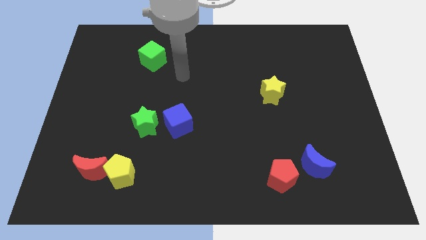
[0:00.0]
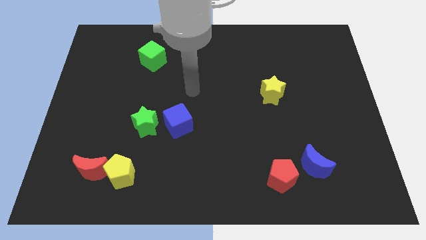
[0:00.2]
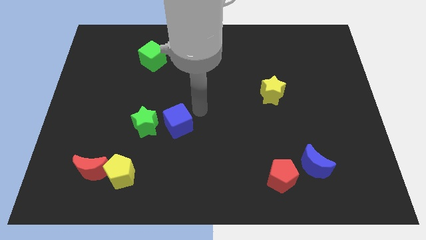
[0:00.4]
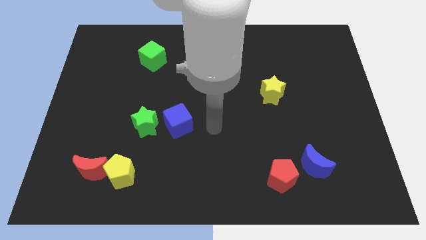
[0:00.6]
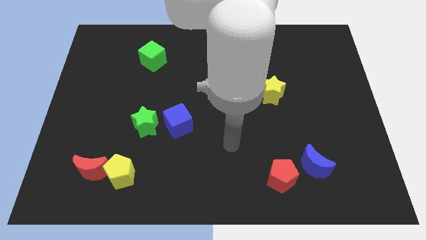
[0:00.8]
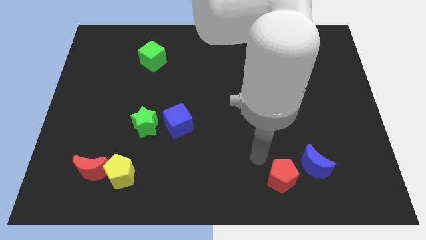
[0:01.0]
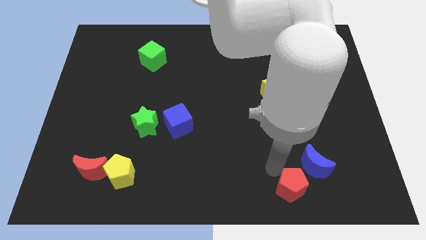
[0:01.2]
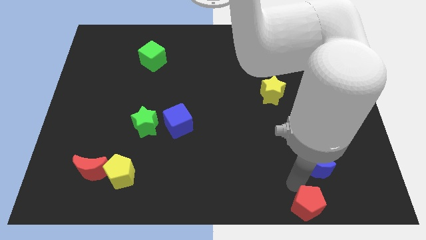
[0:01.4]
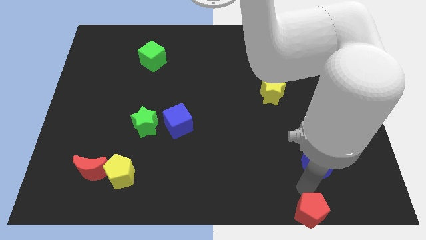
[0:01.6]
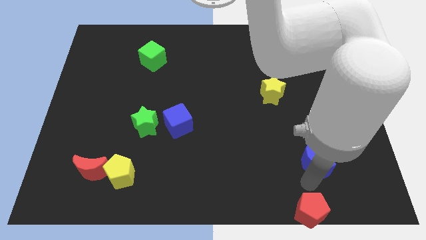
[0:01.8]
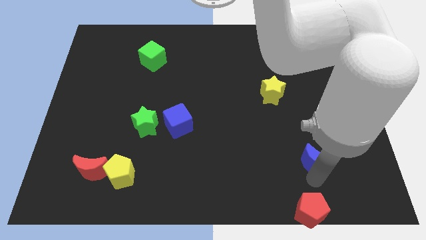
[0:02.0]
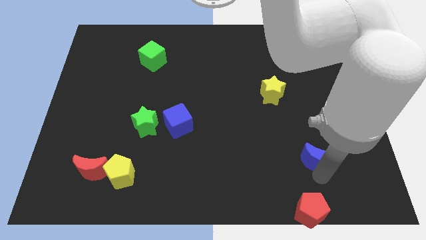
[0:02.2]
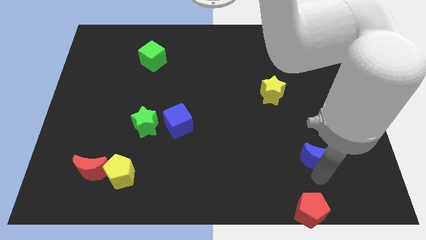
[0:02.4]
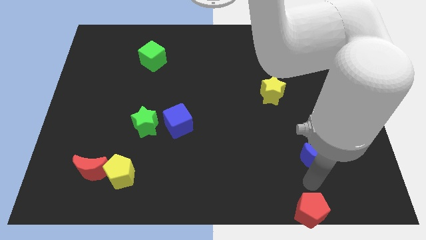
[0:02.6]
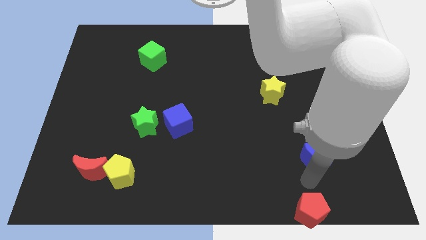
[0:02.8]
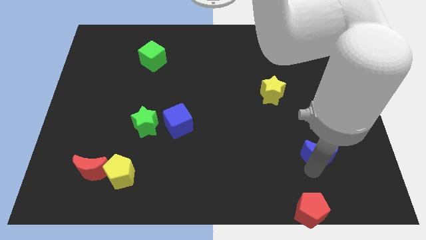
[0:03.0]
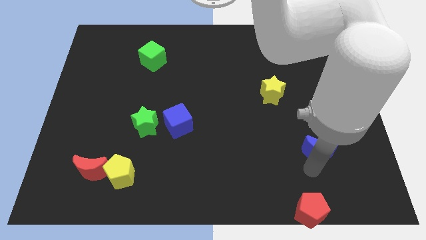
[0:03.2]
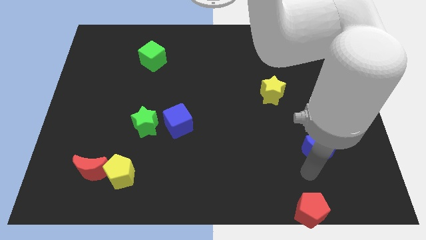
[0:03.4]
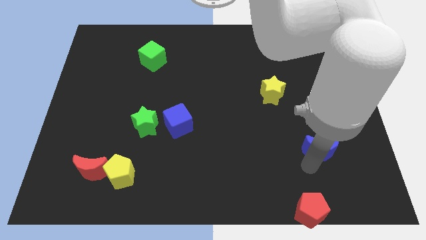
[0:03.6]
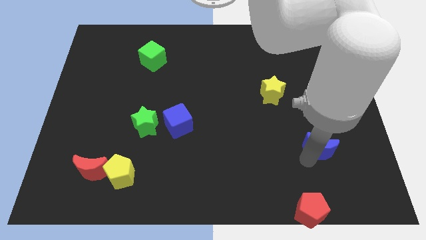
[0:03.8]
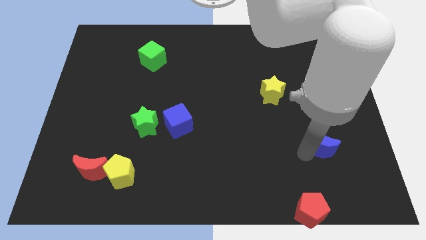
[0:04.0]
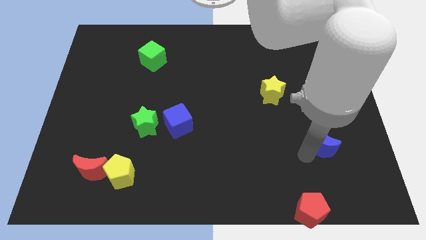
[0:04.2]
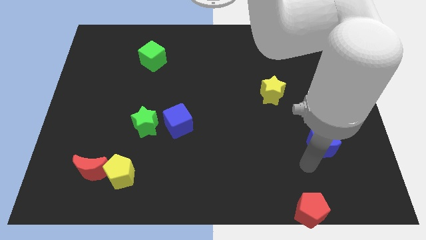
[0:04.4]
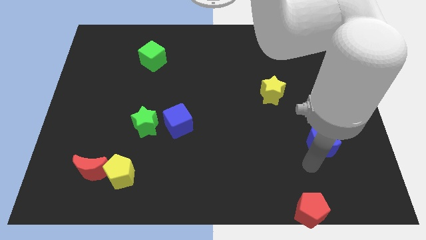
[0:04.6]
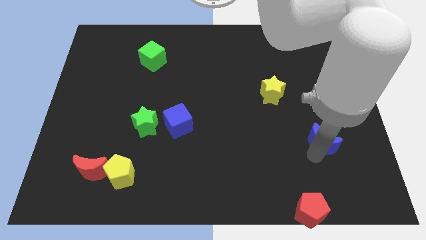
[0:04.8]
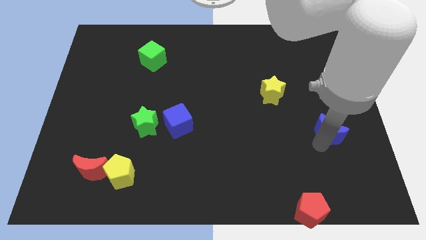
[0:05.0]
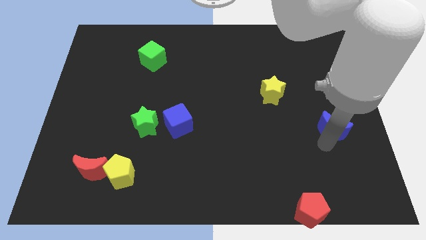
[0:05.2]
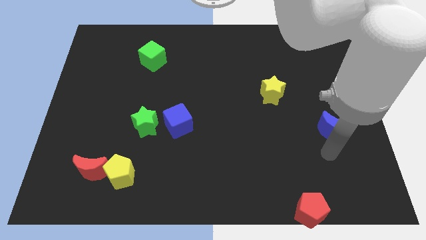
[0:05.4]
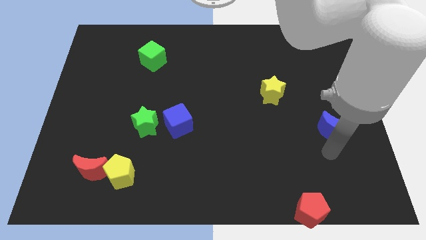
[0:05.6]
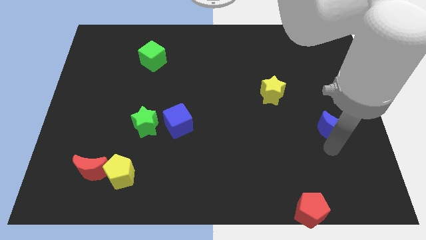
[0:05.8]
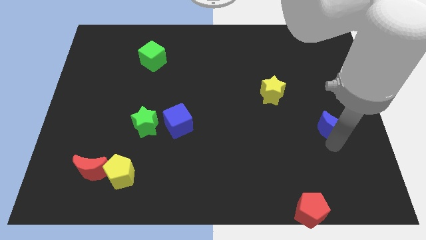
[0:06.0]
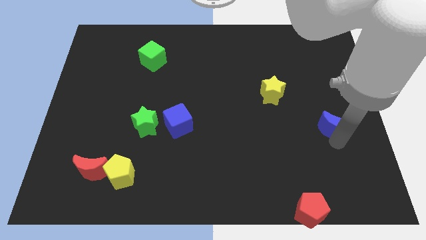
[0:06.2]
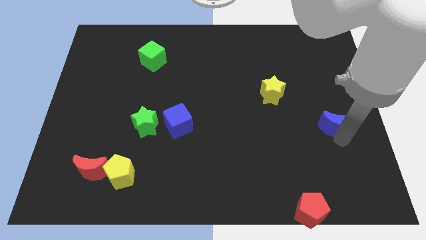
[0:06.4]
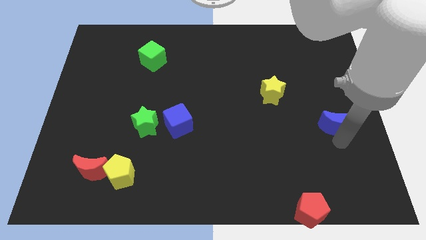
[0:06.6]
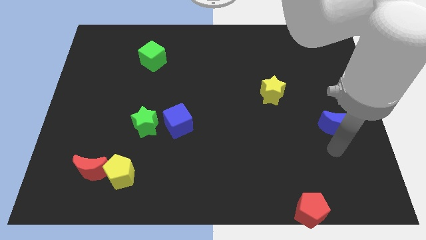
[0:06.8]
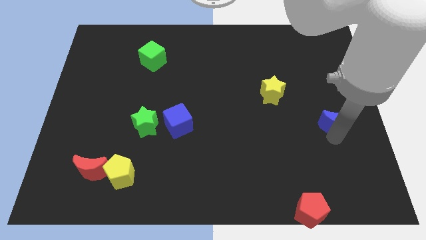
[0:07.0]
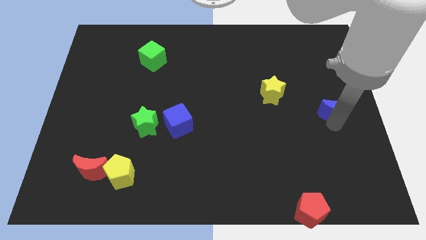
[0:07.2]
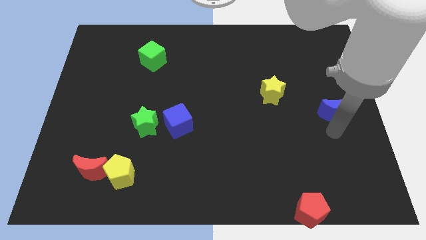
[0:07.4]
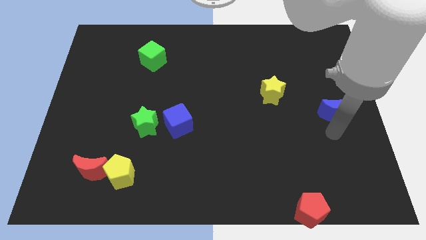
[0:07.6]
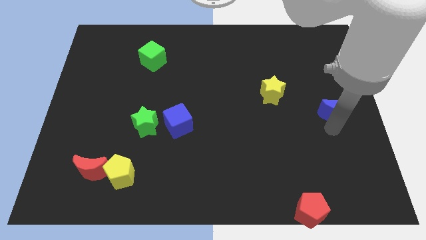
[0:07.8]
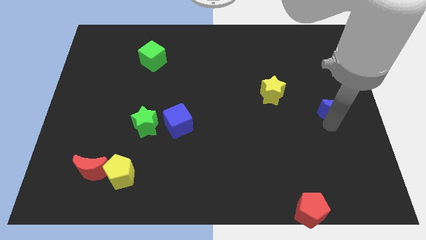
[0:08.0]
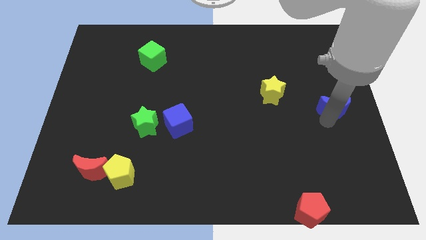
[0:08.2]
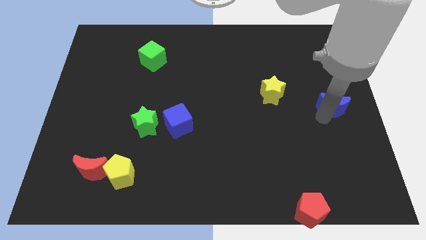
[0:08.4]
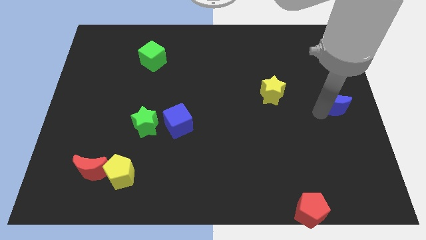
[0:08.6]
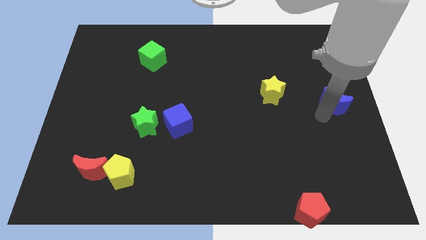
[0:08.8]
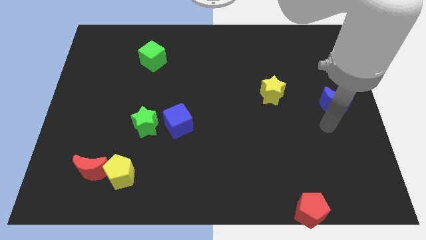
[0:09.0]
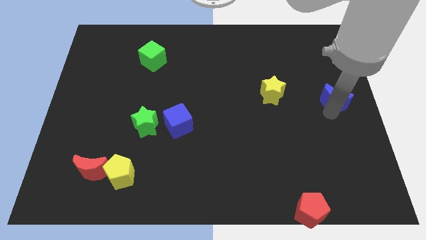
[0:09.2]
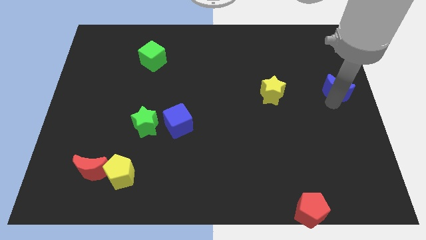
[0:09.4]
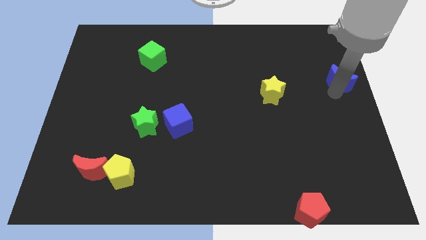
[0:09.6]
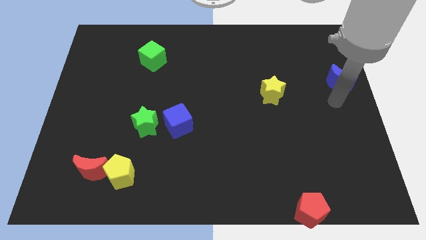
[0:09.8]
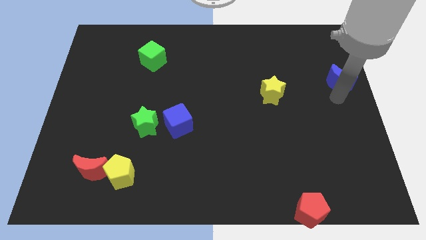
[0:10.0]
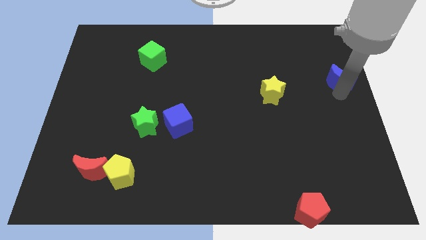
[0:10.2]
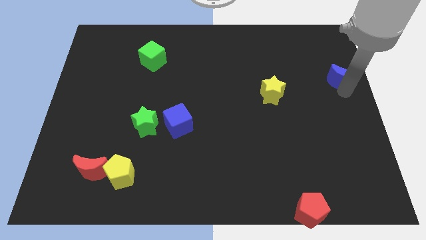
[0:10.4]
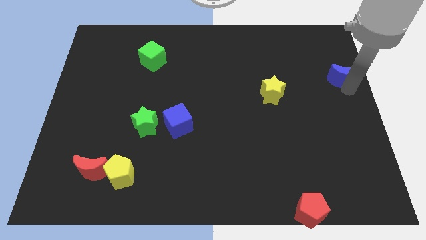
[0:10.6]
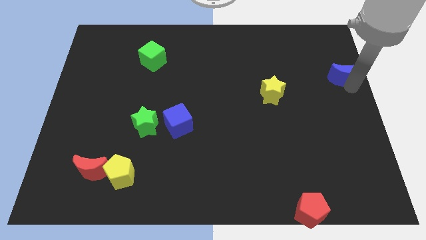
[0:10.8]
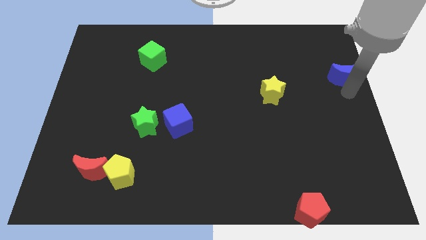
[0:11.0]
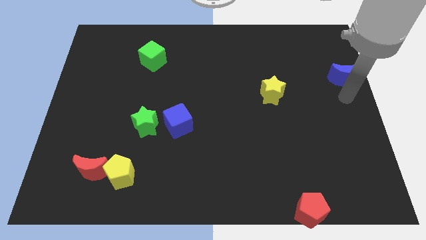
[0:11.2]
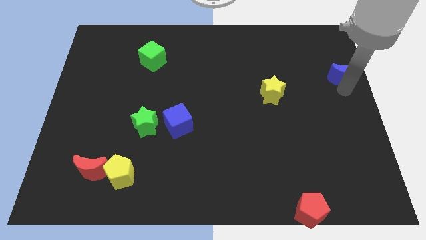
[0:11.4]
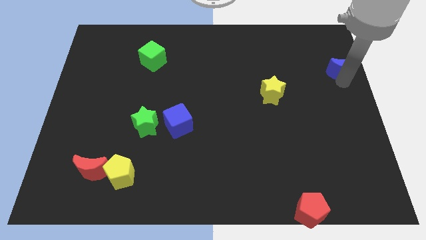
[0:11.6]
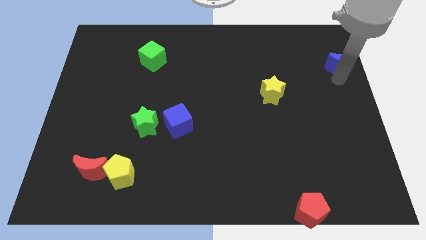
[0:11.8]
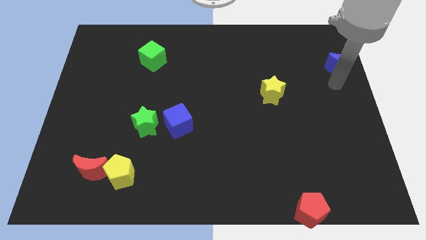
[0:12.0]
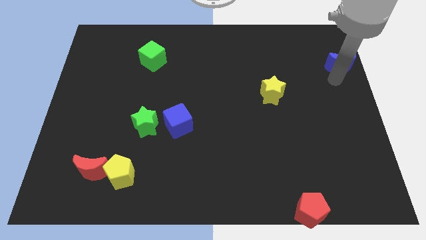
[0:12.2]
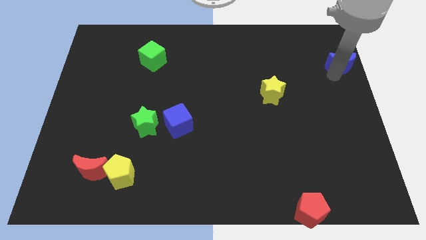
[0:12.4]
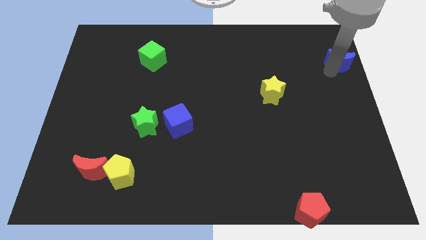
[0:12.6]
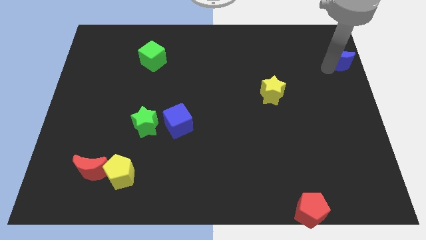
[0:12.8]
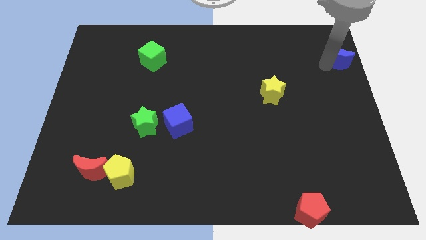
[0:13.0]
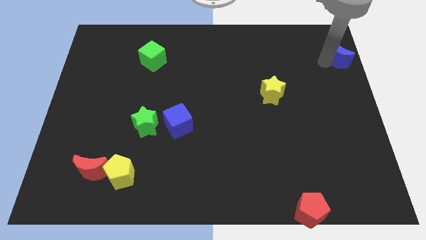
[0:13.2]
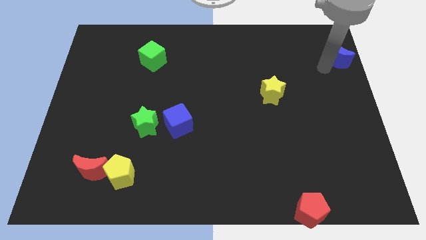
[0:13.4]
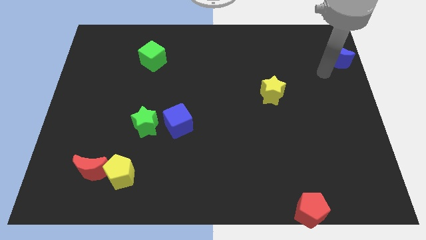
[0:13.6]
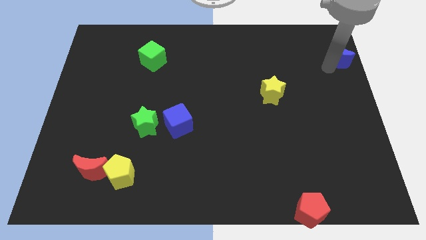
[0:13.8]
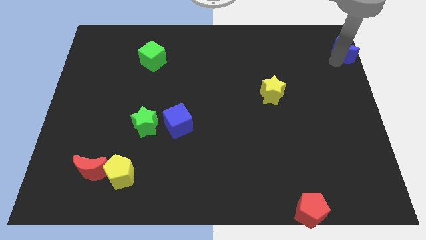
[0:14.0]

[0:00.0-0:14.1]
push the blue moon to the upper right corner

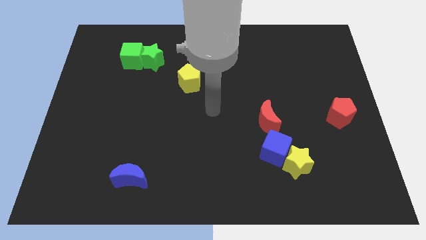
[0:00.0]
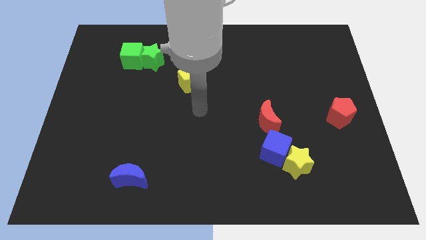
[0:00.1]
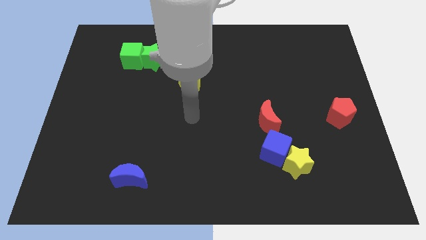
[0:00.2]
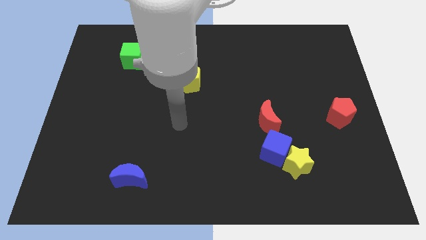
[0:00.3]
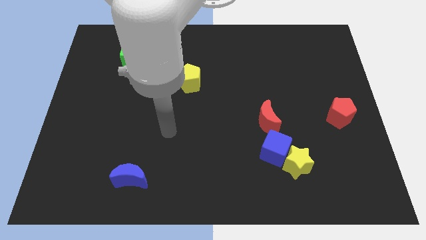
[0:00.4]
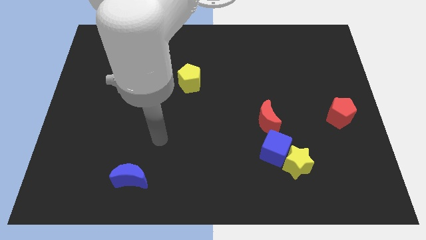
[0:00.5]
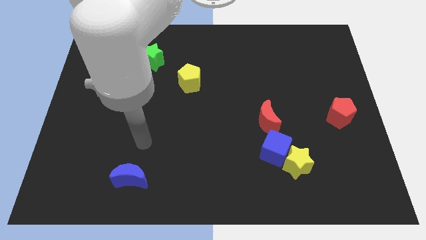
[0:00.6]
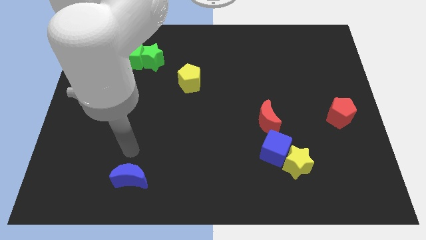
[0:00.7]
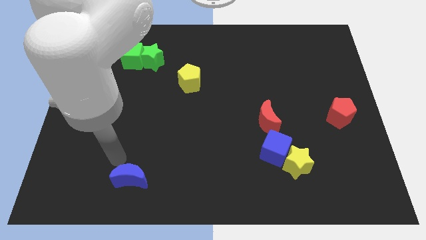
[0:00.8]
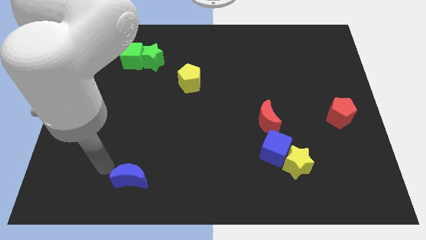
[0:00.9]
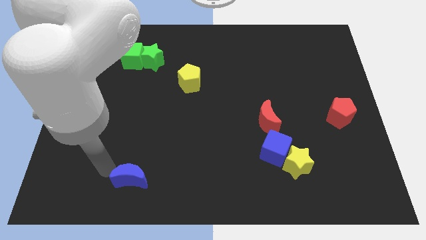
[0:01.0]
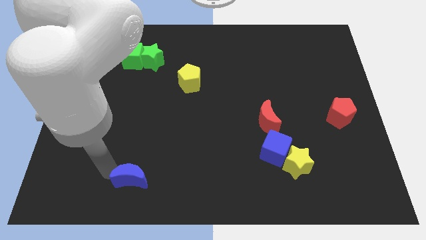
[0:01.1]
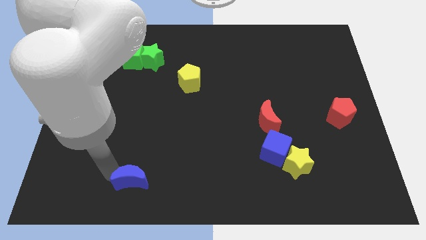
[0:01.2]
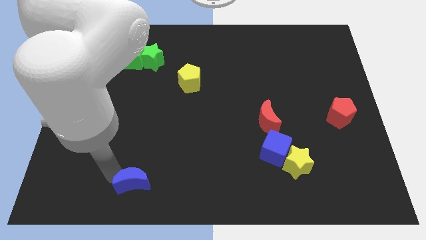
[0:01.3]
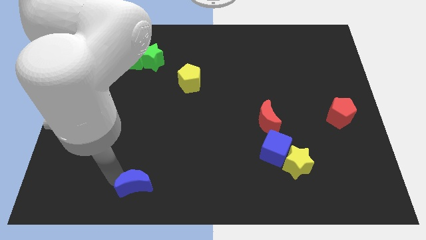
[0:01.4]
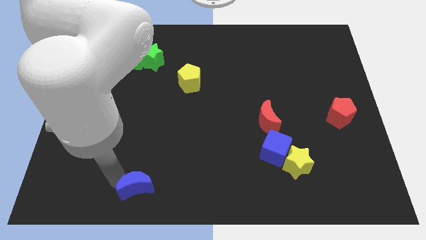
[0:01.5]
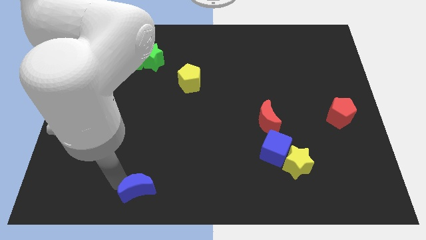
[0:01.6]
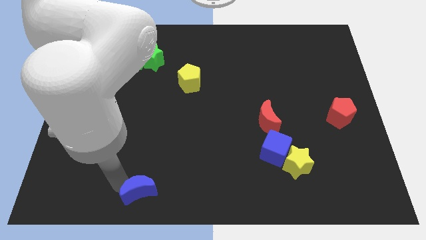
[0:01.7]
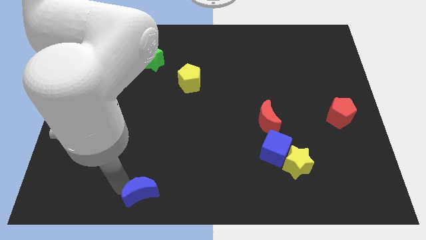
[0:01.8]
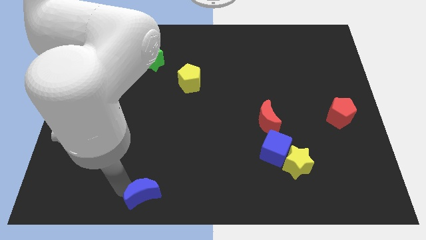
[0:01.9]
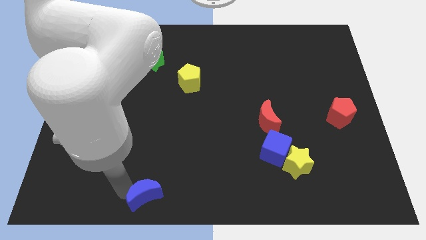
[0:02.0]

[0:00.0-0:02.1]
move the blue moon to the bottom side
